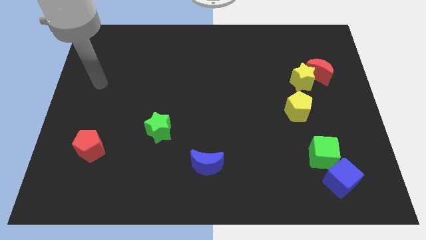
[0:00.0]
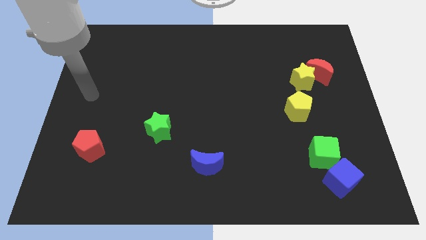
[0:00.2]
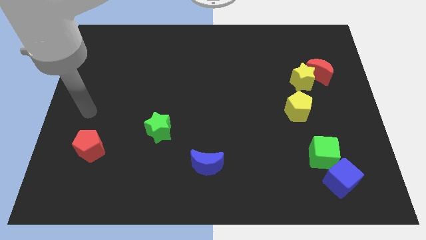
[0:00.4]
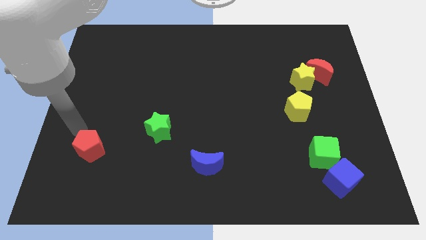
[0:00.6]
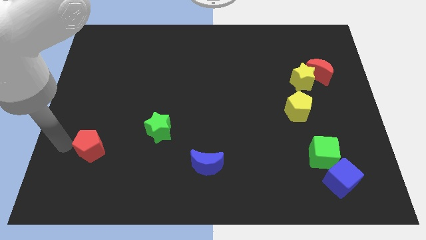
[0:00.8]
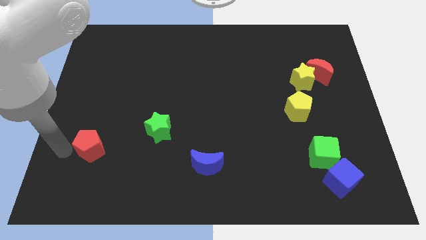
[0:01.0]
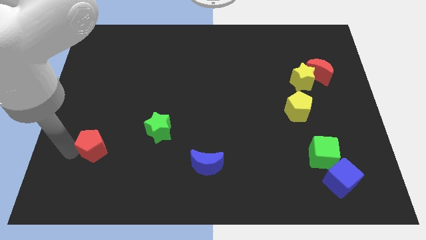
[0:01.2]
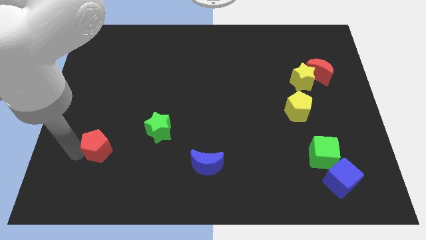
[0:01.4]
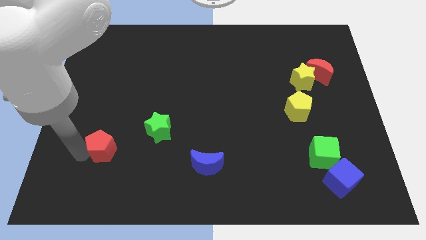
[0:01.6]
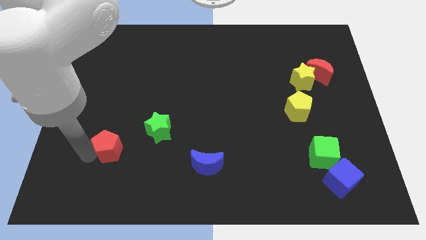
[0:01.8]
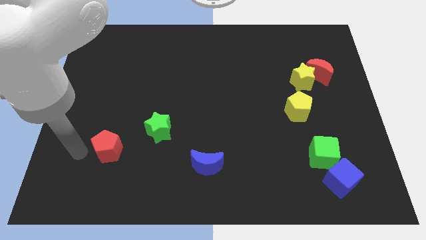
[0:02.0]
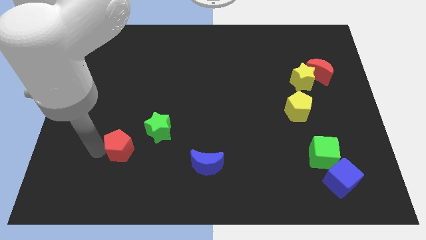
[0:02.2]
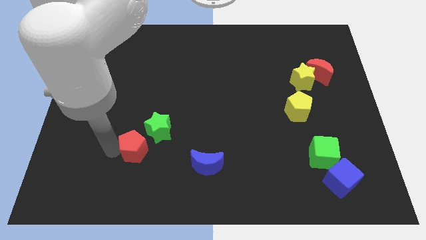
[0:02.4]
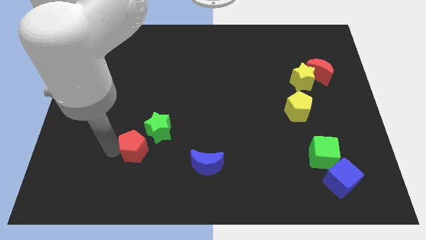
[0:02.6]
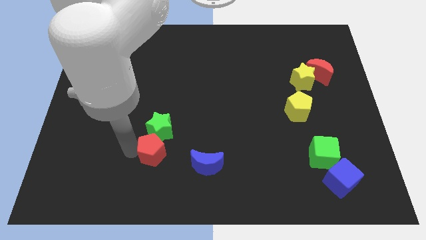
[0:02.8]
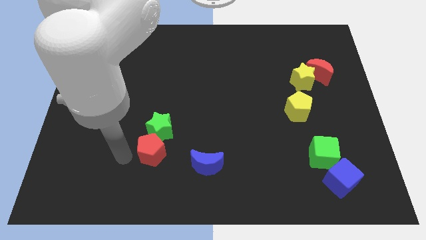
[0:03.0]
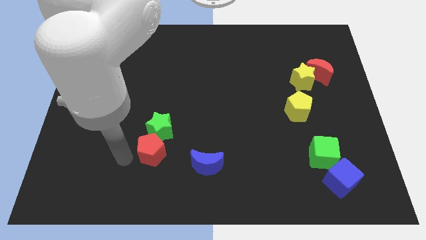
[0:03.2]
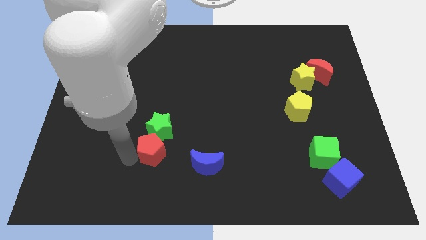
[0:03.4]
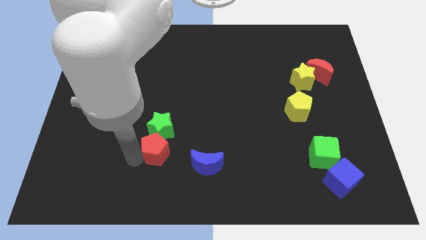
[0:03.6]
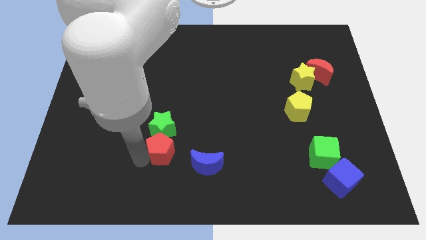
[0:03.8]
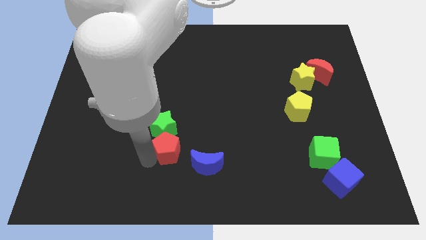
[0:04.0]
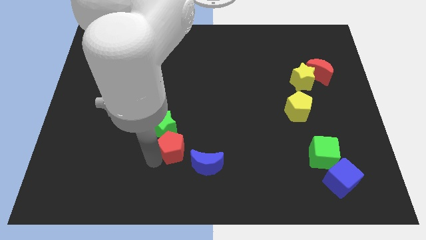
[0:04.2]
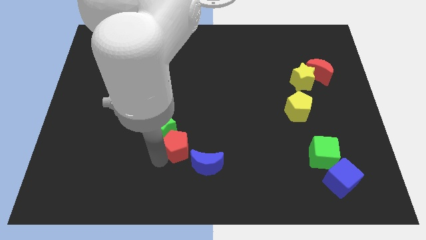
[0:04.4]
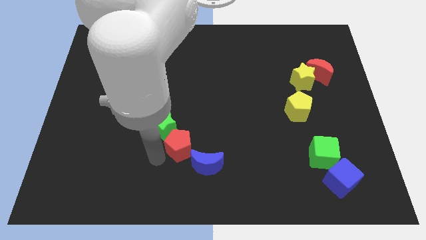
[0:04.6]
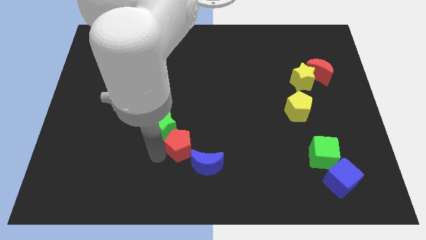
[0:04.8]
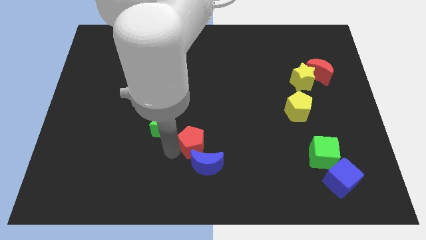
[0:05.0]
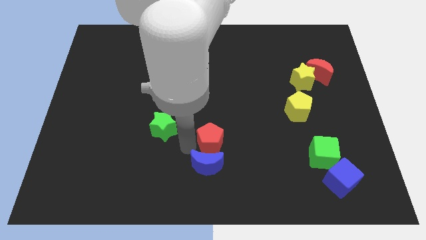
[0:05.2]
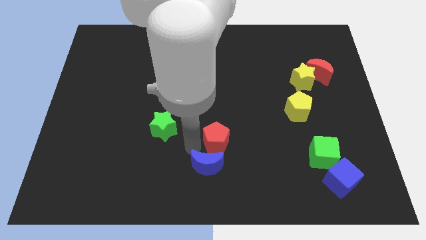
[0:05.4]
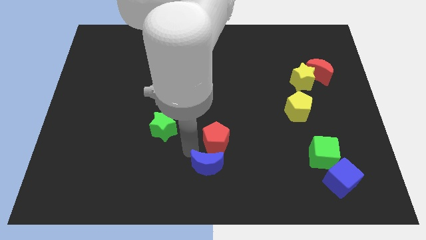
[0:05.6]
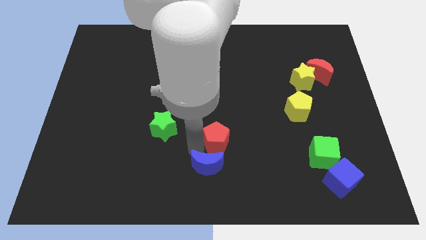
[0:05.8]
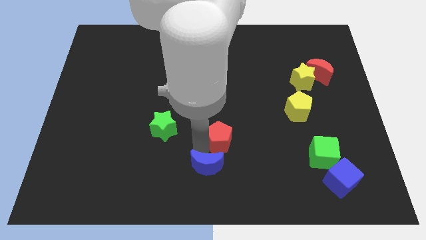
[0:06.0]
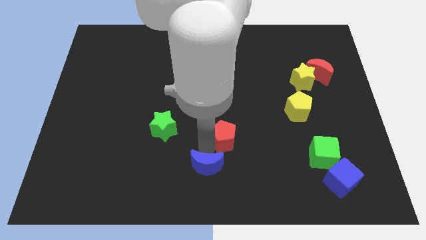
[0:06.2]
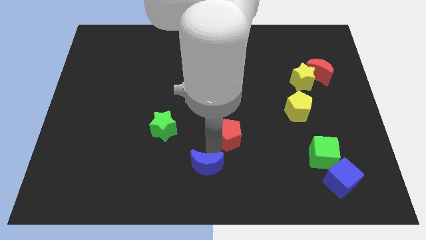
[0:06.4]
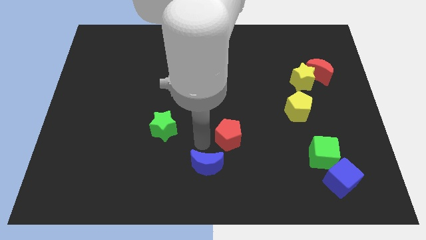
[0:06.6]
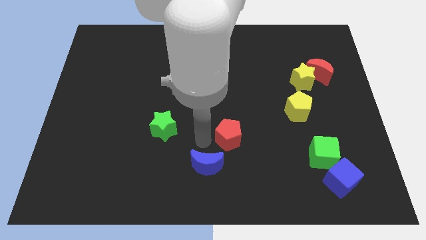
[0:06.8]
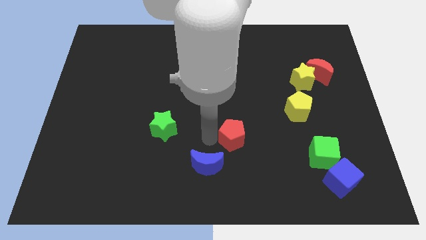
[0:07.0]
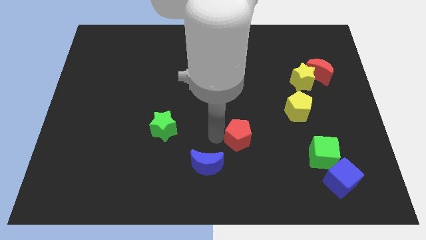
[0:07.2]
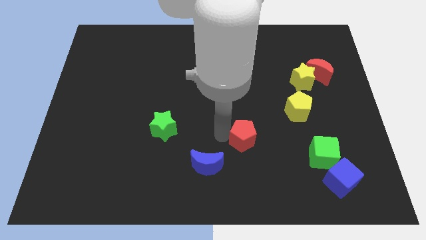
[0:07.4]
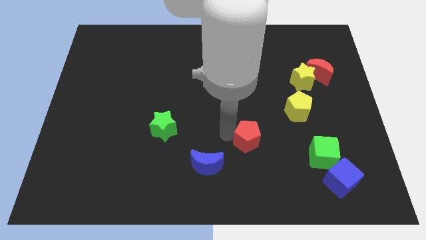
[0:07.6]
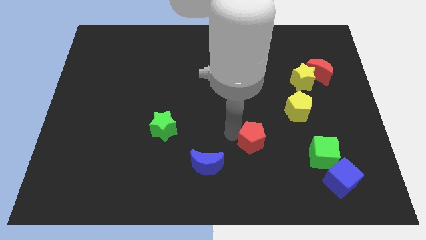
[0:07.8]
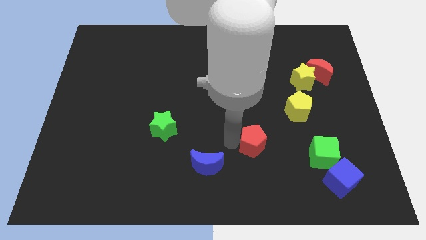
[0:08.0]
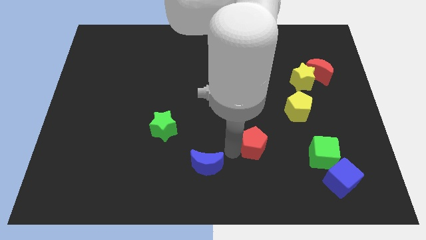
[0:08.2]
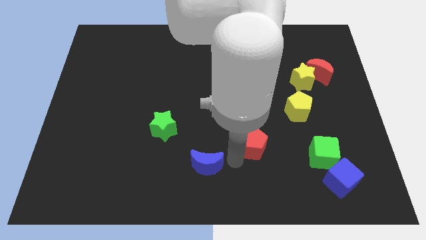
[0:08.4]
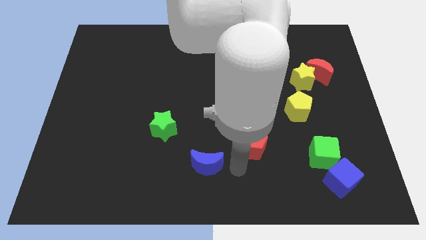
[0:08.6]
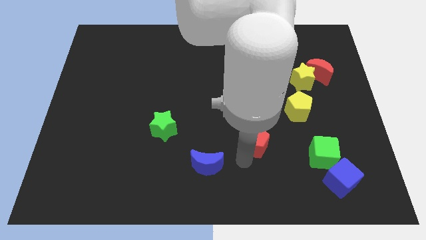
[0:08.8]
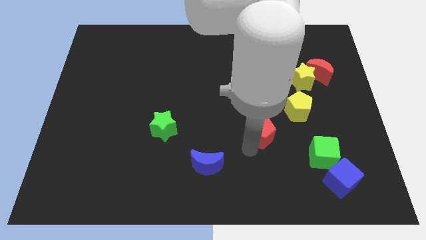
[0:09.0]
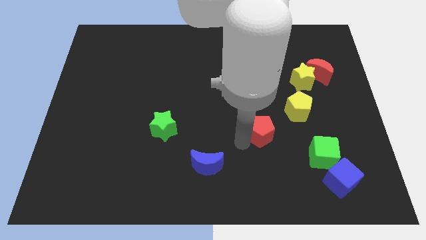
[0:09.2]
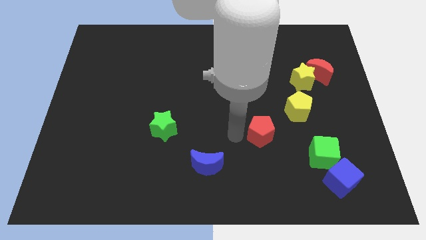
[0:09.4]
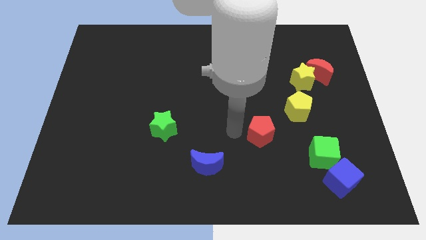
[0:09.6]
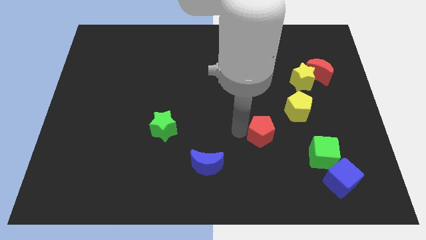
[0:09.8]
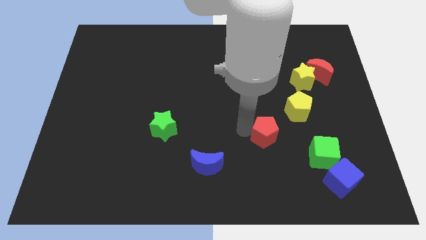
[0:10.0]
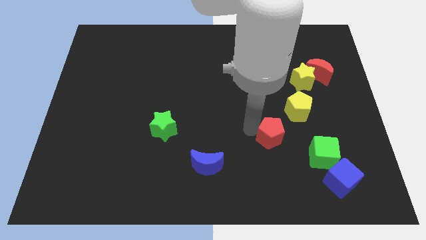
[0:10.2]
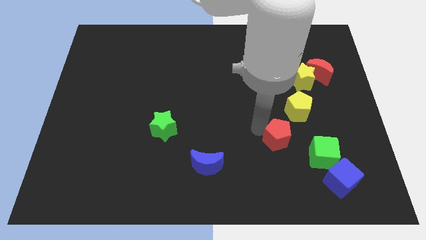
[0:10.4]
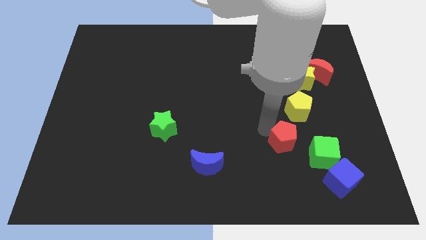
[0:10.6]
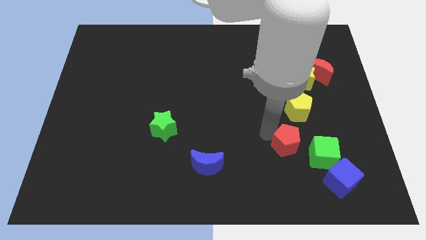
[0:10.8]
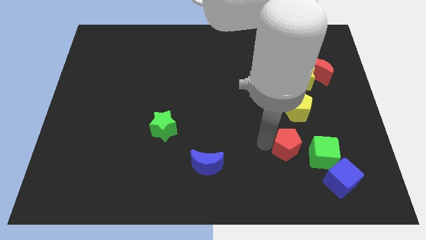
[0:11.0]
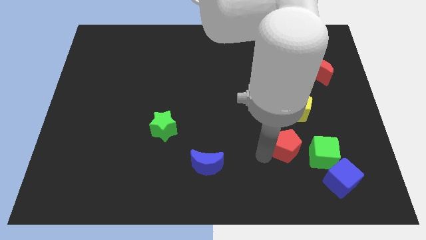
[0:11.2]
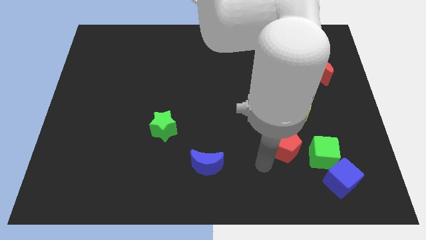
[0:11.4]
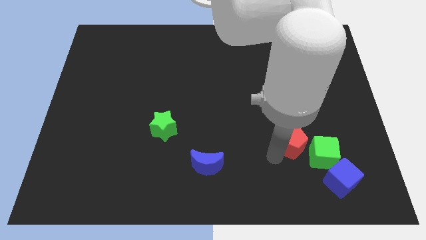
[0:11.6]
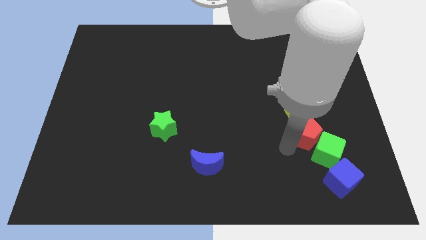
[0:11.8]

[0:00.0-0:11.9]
put the red pentagon diagonally down and to the right of the yellow pentagon

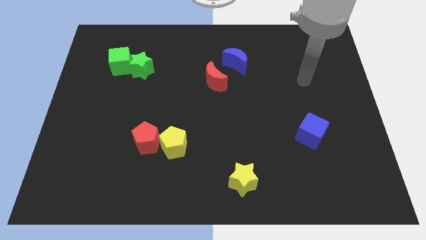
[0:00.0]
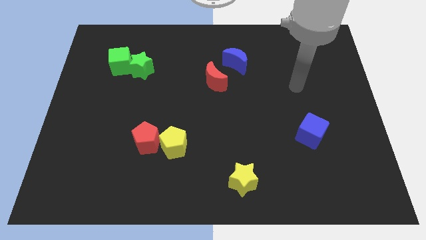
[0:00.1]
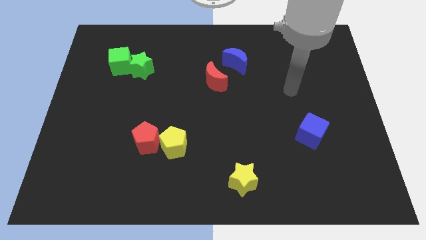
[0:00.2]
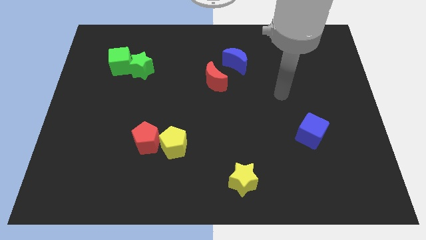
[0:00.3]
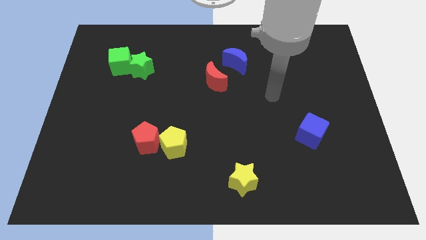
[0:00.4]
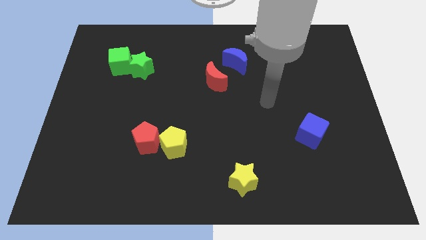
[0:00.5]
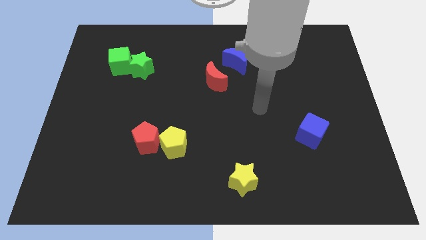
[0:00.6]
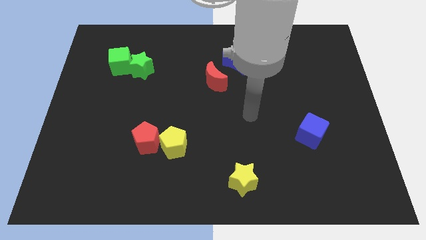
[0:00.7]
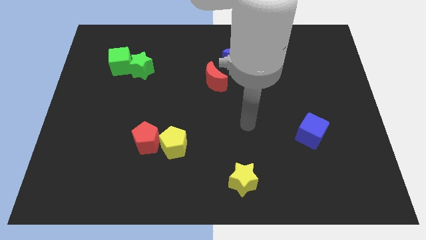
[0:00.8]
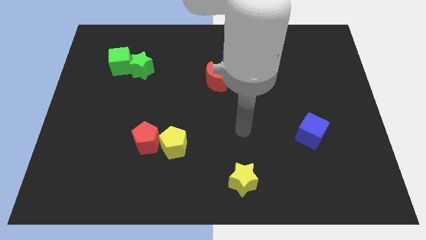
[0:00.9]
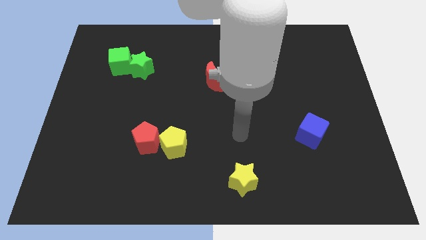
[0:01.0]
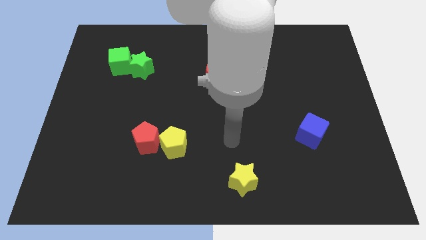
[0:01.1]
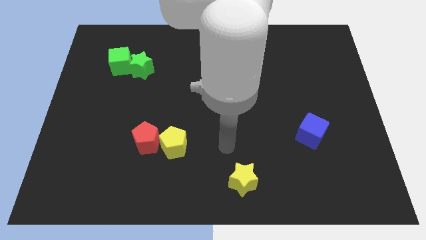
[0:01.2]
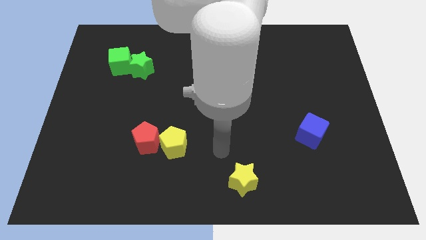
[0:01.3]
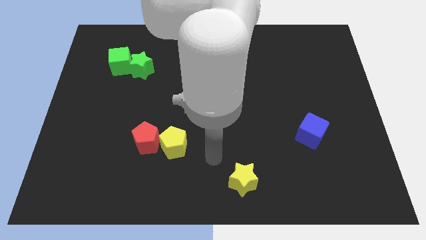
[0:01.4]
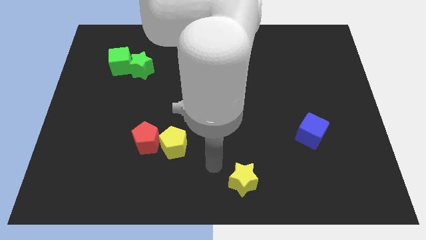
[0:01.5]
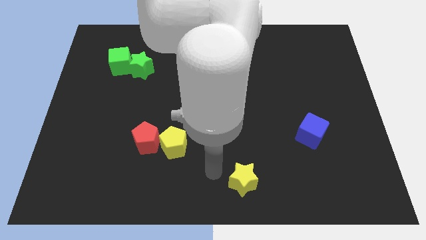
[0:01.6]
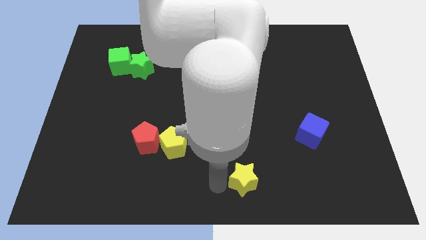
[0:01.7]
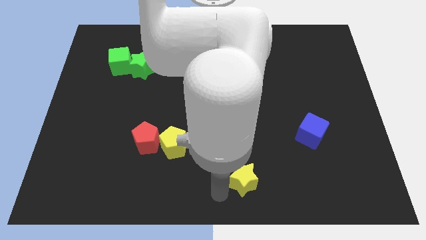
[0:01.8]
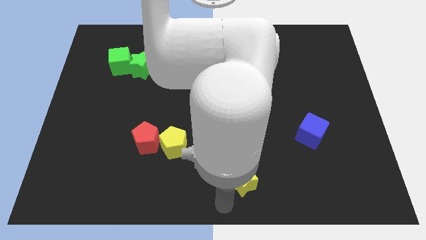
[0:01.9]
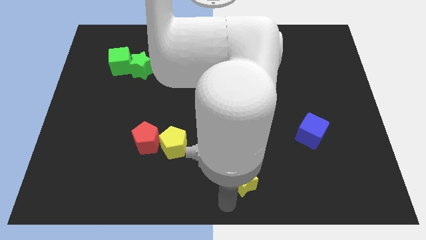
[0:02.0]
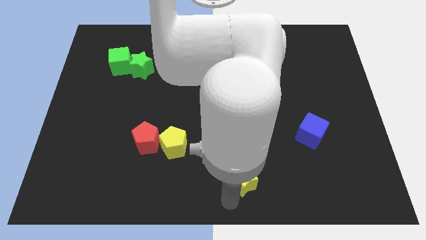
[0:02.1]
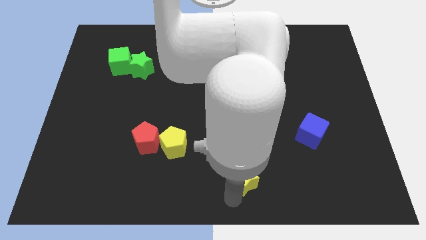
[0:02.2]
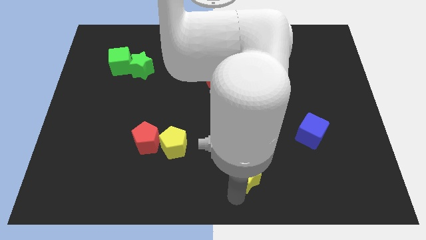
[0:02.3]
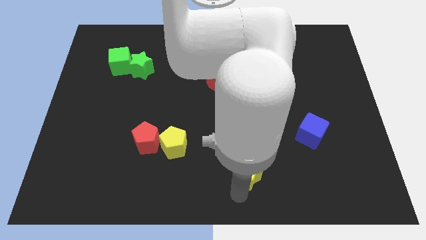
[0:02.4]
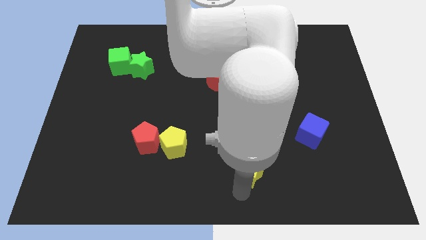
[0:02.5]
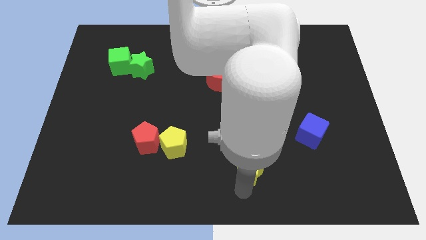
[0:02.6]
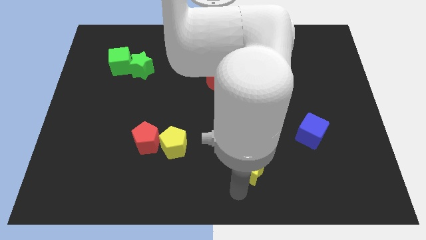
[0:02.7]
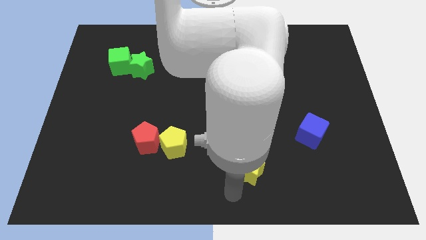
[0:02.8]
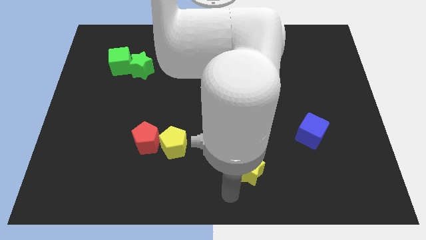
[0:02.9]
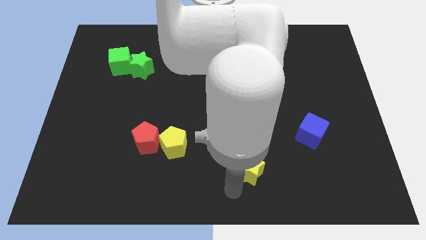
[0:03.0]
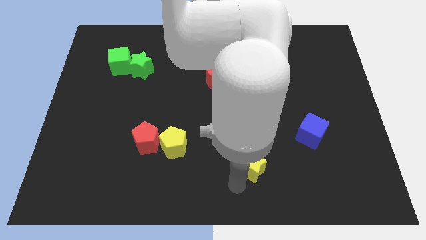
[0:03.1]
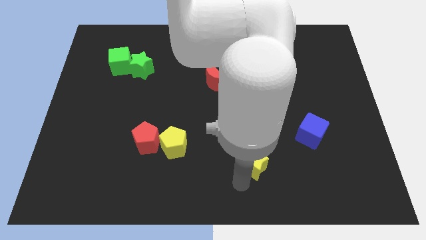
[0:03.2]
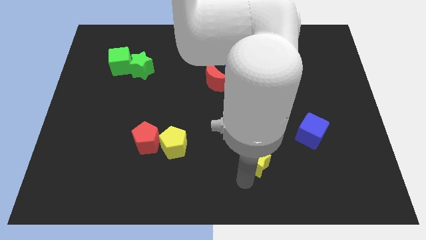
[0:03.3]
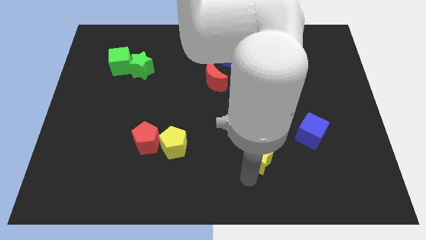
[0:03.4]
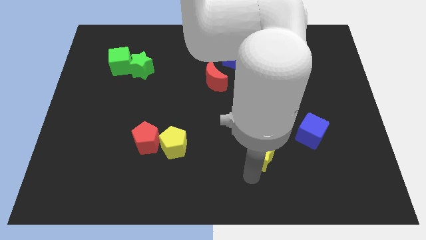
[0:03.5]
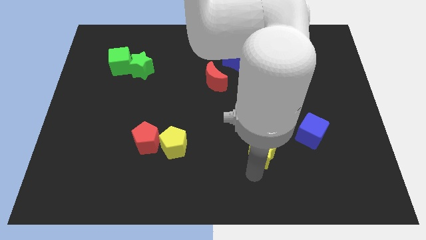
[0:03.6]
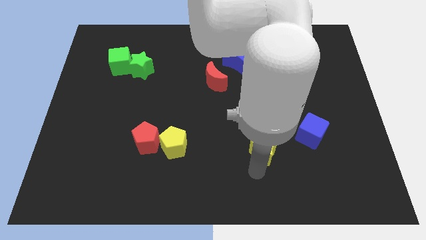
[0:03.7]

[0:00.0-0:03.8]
put the yellow star to the left of the blue cube
